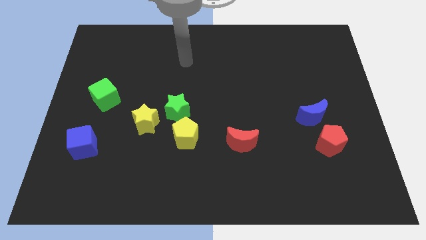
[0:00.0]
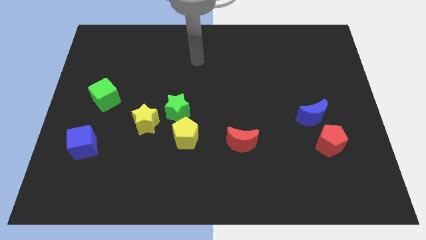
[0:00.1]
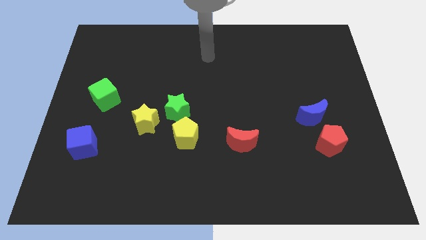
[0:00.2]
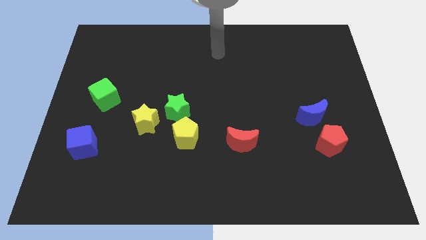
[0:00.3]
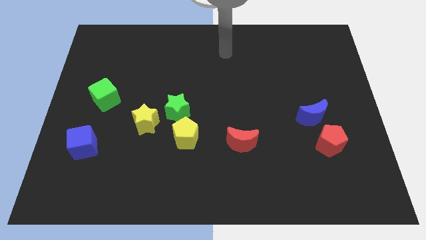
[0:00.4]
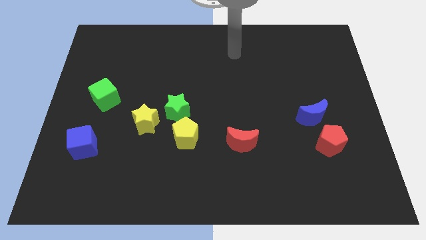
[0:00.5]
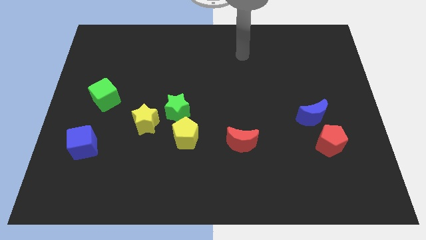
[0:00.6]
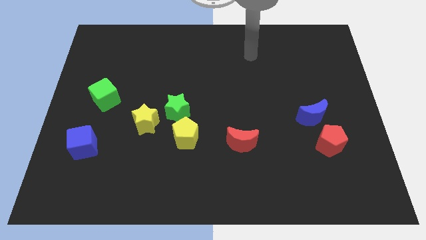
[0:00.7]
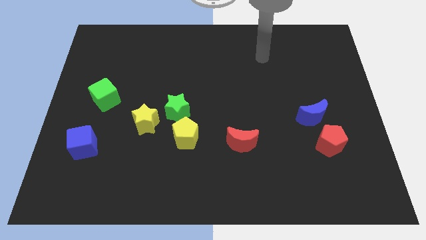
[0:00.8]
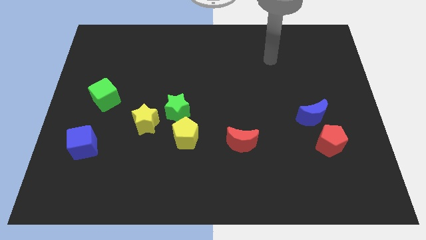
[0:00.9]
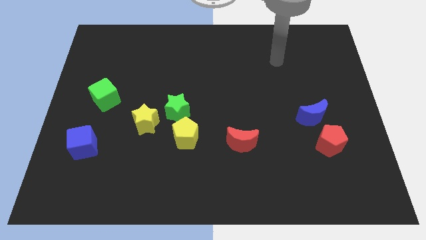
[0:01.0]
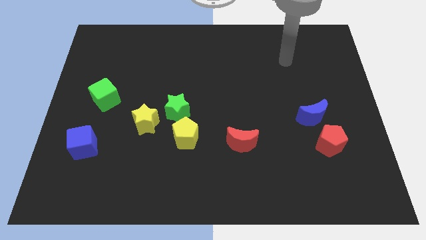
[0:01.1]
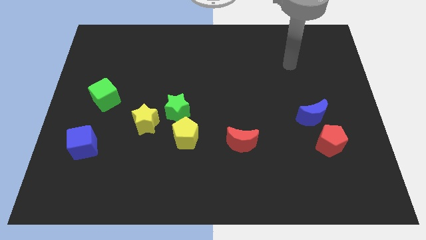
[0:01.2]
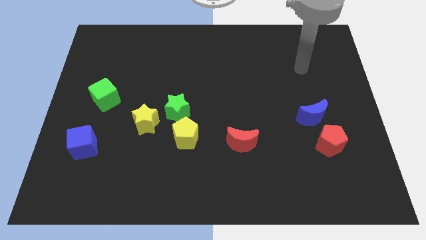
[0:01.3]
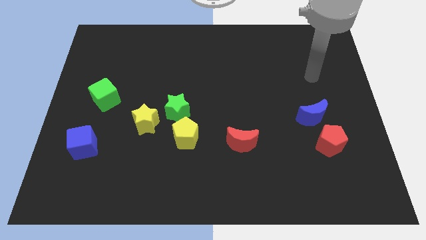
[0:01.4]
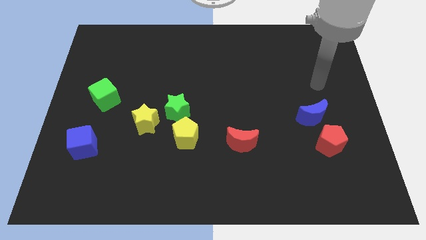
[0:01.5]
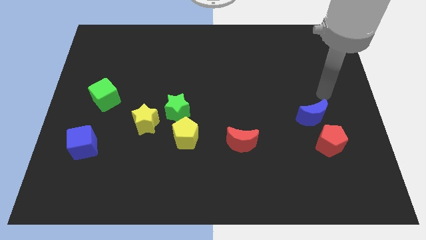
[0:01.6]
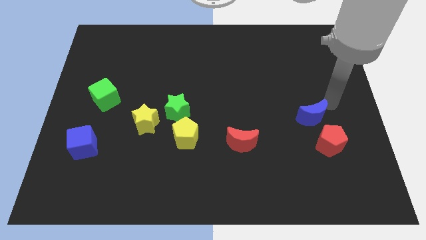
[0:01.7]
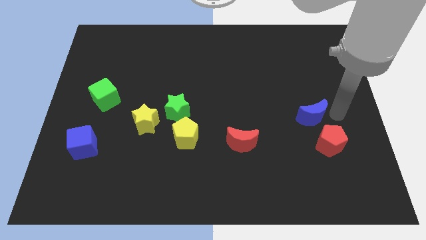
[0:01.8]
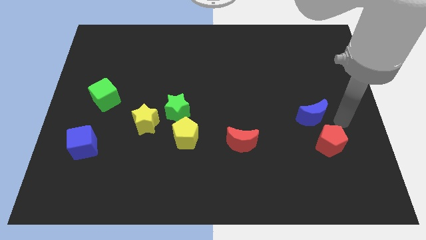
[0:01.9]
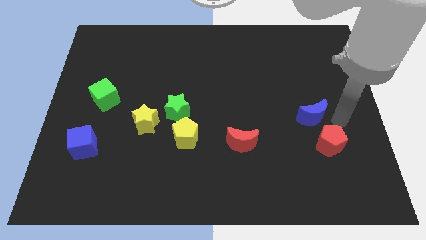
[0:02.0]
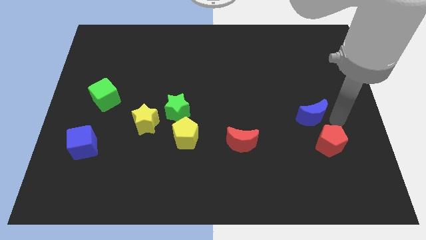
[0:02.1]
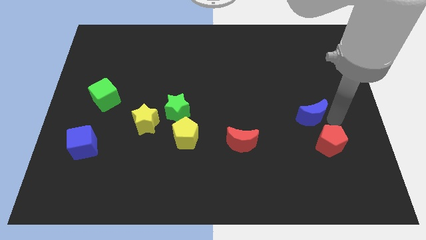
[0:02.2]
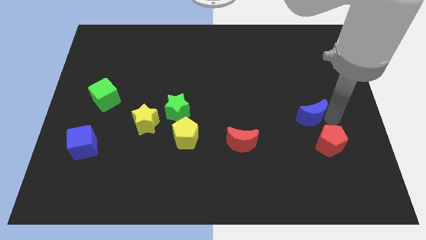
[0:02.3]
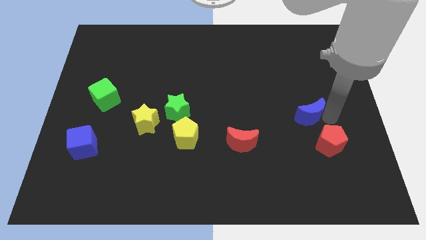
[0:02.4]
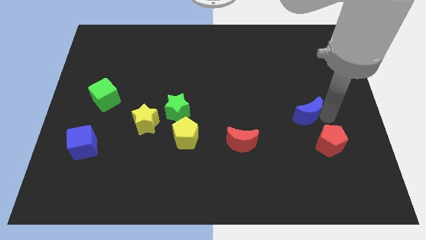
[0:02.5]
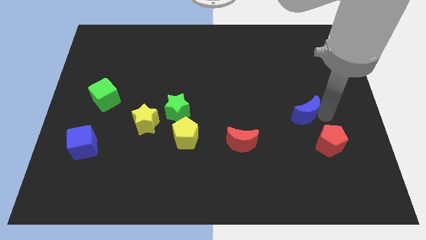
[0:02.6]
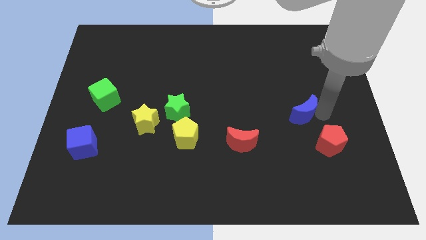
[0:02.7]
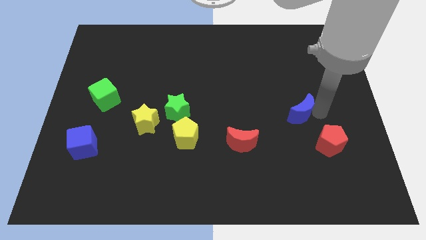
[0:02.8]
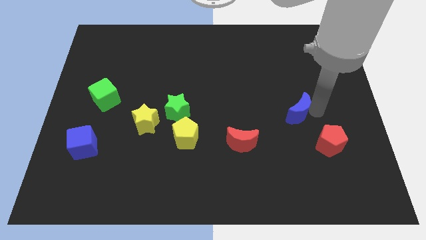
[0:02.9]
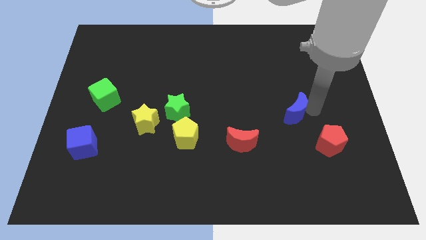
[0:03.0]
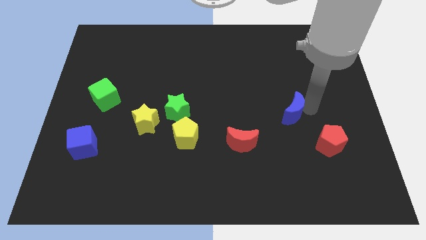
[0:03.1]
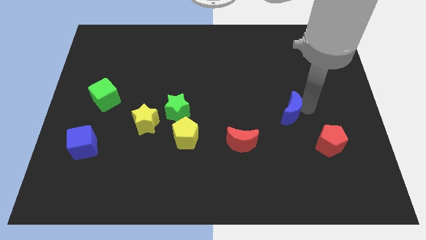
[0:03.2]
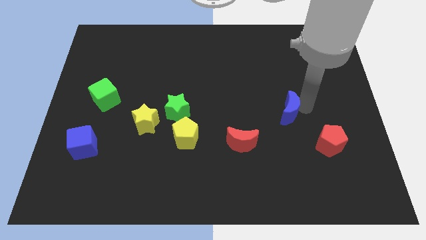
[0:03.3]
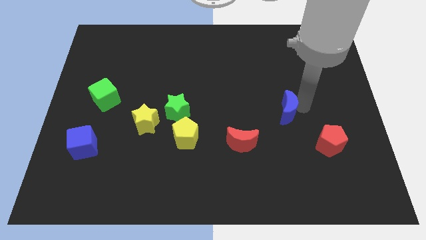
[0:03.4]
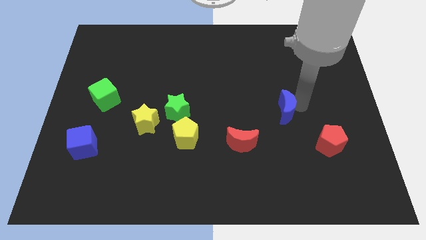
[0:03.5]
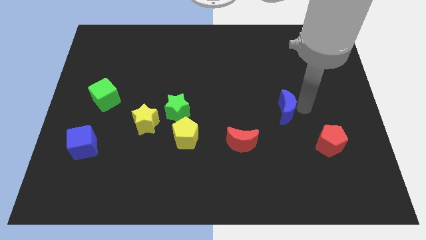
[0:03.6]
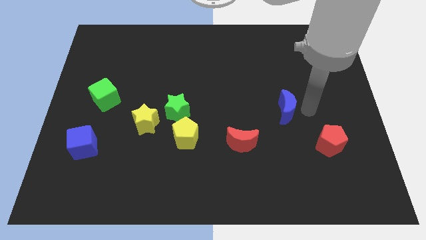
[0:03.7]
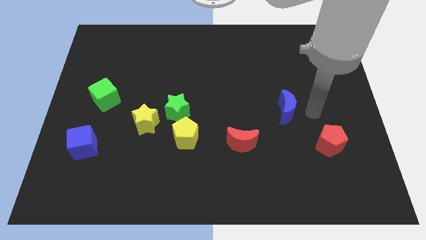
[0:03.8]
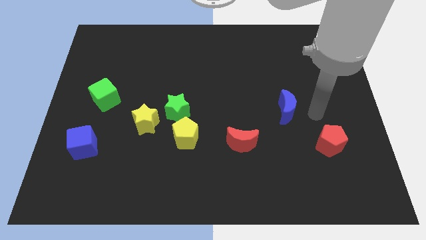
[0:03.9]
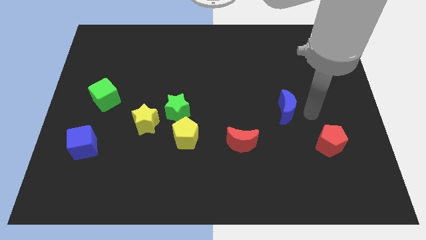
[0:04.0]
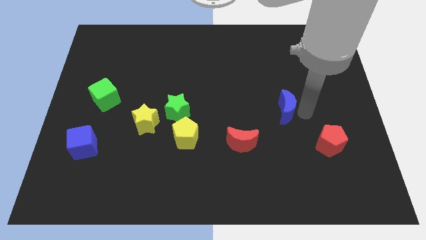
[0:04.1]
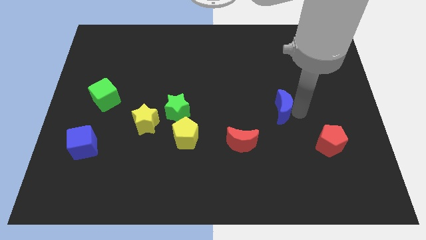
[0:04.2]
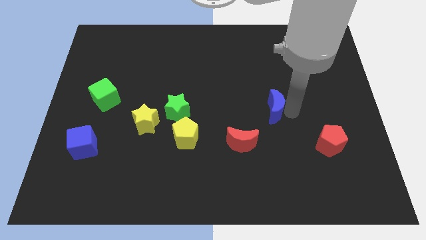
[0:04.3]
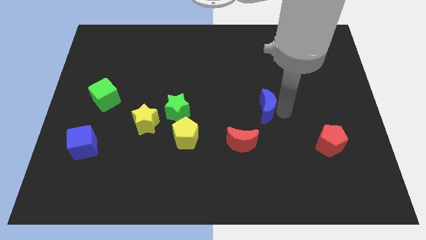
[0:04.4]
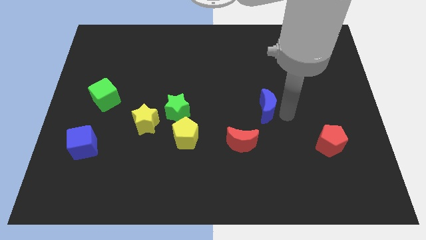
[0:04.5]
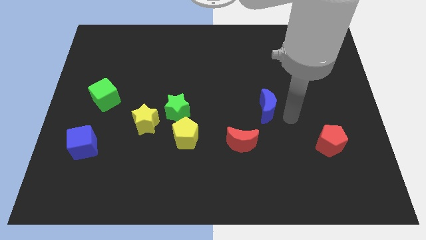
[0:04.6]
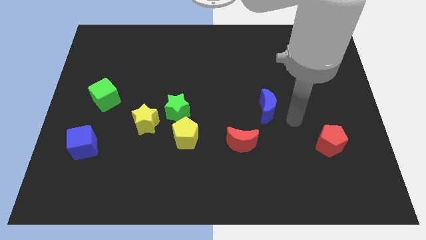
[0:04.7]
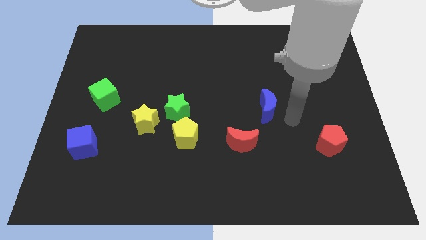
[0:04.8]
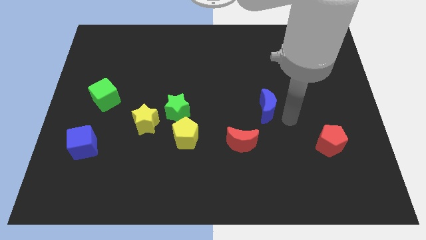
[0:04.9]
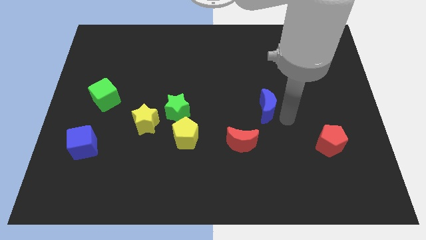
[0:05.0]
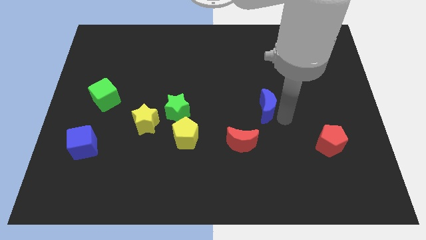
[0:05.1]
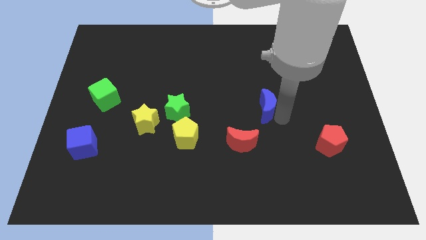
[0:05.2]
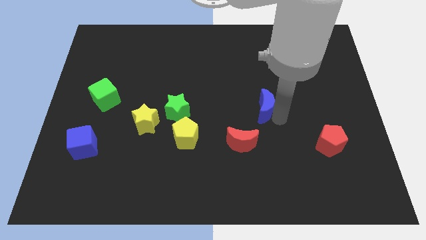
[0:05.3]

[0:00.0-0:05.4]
push the blue moon to the center of the board

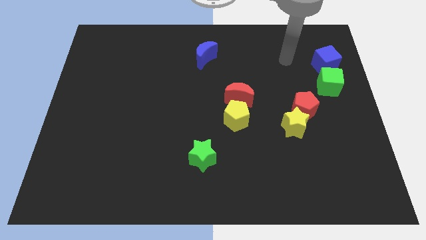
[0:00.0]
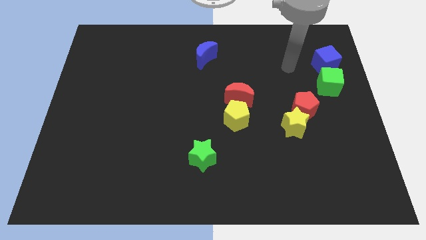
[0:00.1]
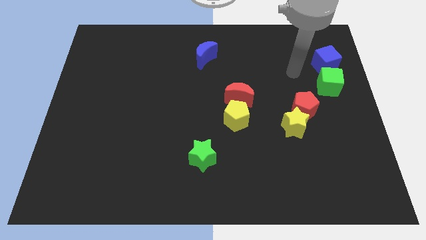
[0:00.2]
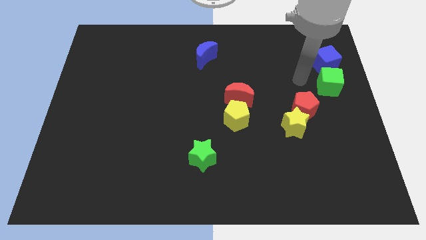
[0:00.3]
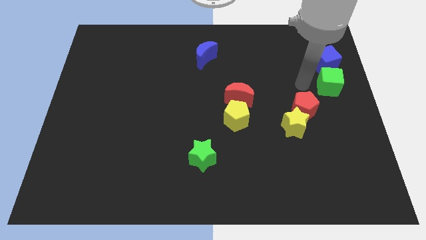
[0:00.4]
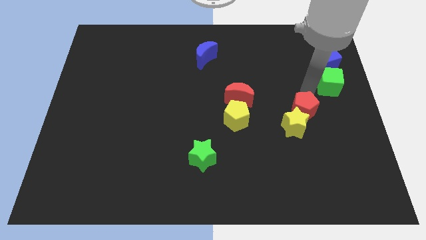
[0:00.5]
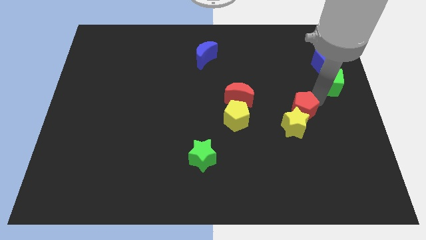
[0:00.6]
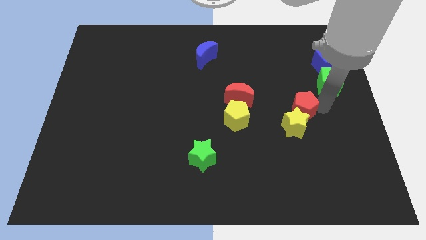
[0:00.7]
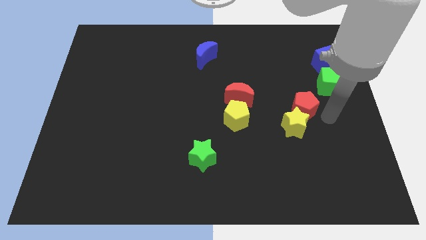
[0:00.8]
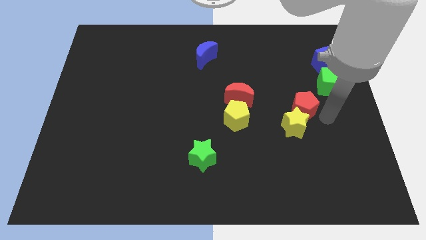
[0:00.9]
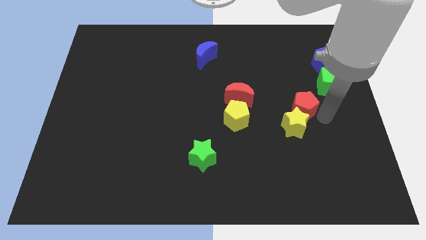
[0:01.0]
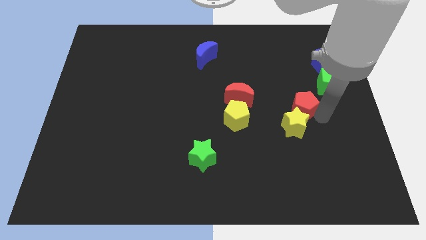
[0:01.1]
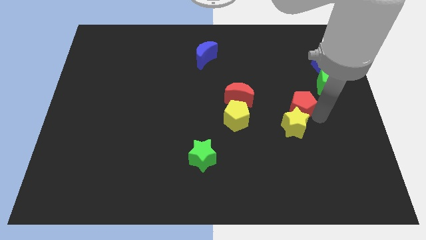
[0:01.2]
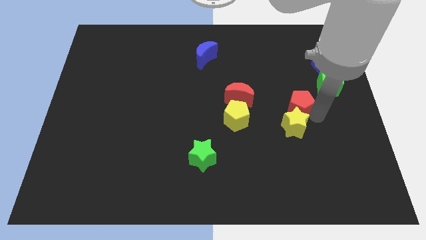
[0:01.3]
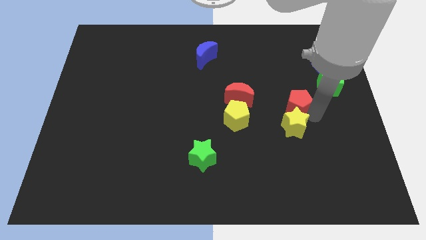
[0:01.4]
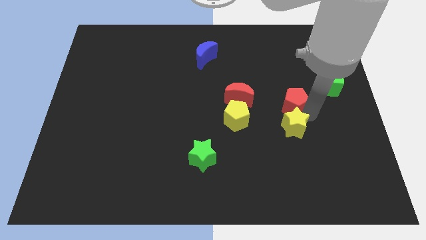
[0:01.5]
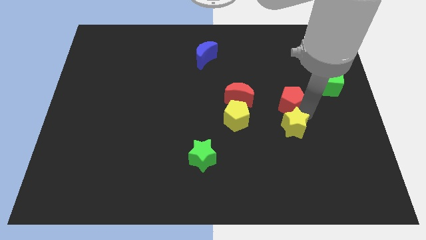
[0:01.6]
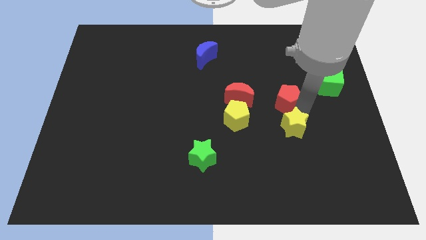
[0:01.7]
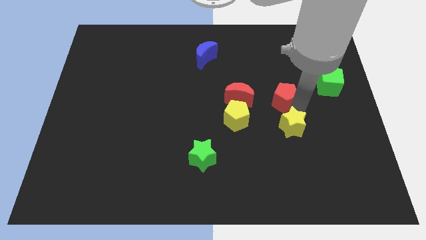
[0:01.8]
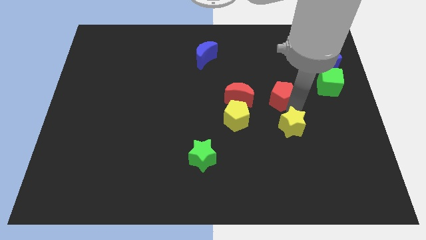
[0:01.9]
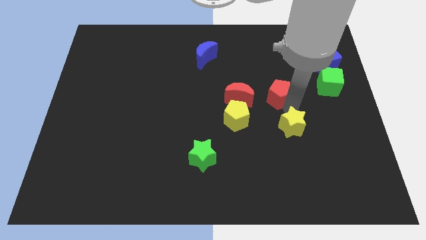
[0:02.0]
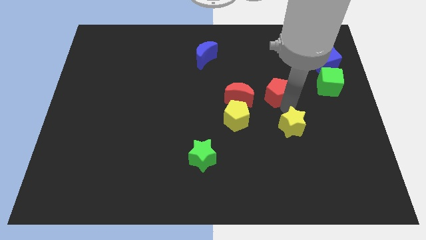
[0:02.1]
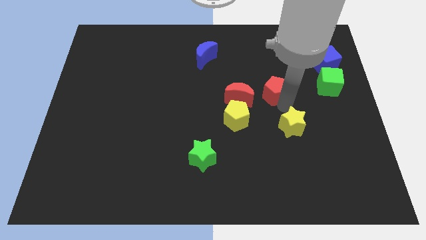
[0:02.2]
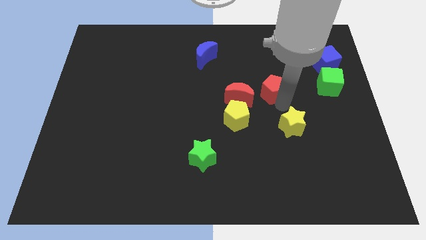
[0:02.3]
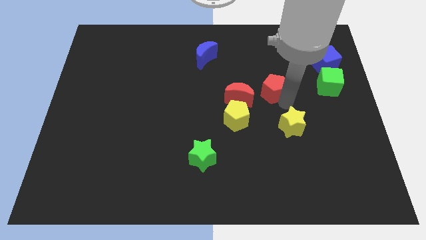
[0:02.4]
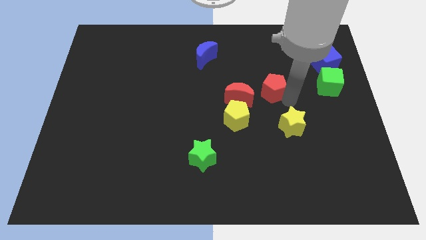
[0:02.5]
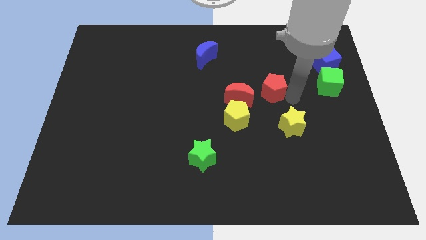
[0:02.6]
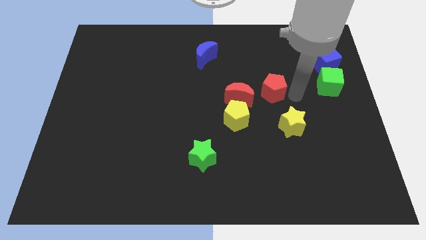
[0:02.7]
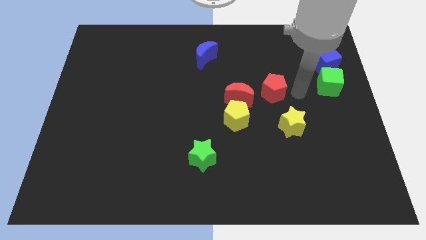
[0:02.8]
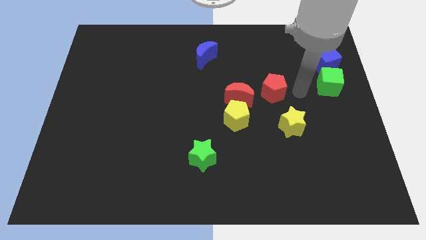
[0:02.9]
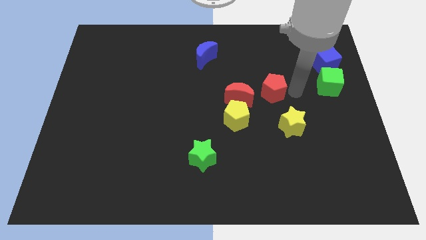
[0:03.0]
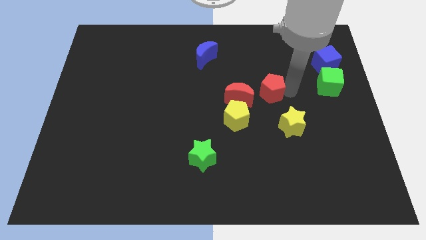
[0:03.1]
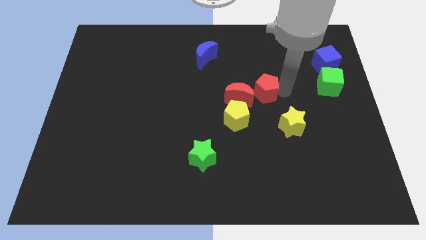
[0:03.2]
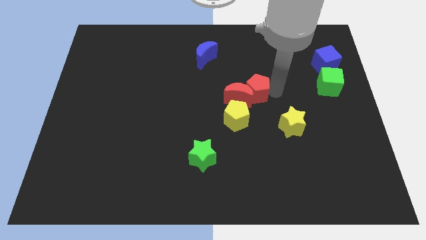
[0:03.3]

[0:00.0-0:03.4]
slide the red pentagon to the middle
